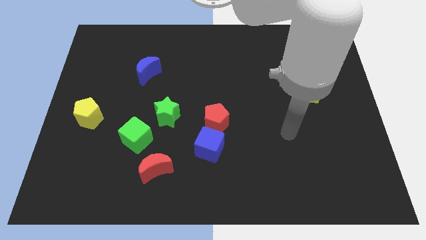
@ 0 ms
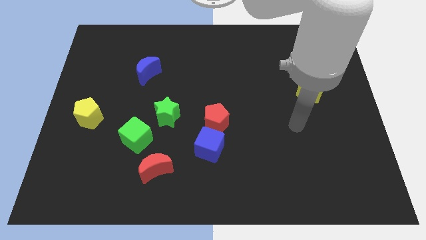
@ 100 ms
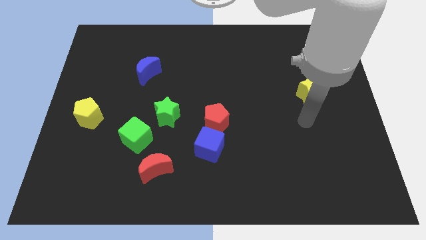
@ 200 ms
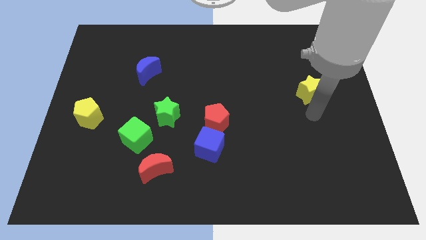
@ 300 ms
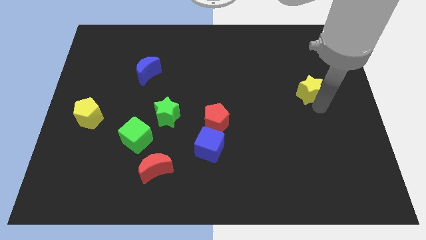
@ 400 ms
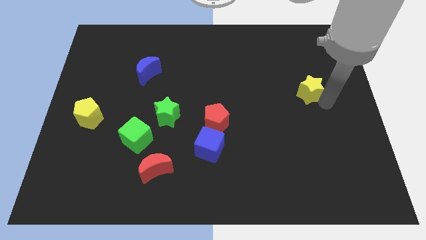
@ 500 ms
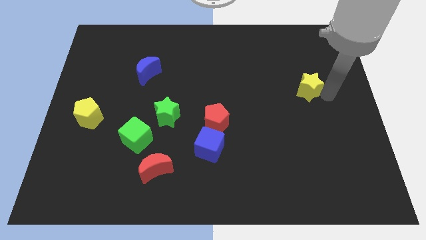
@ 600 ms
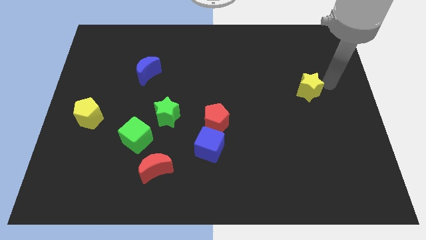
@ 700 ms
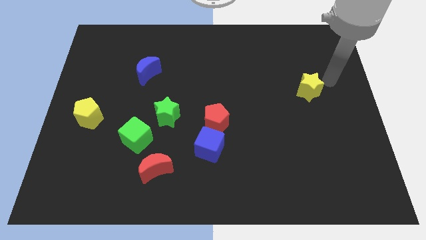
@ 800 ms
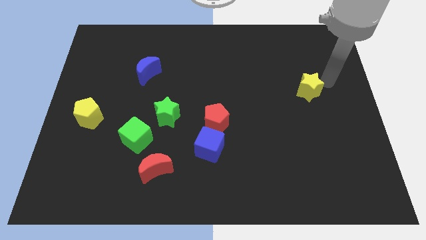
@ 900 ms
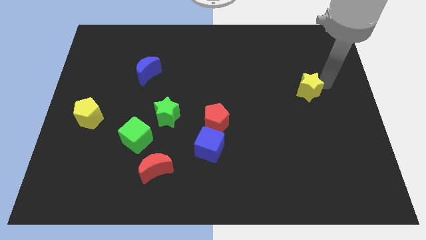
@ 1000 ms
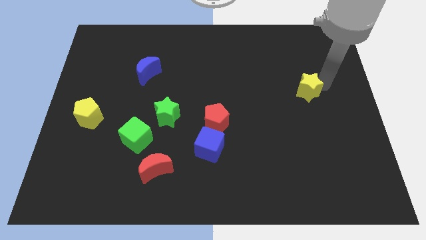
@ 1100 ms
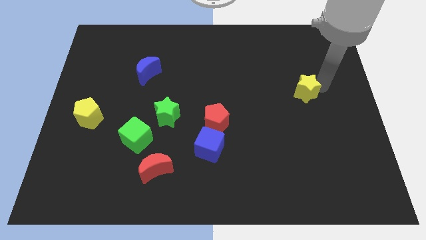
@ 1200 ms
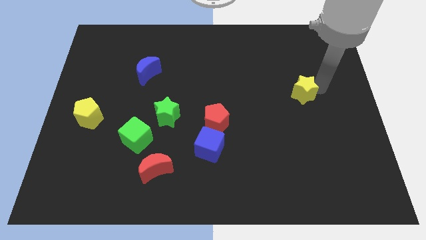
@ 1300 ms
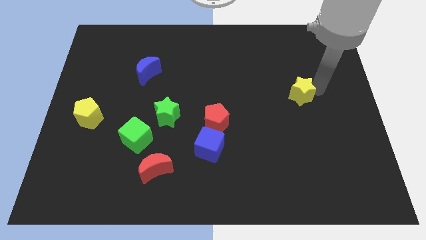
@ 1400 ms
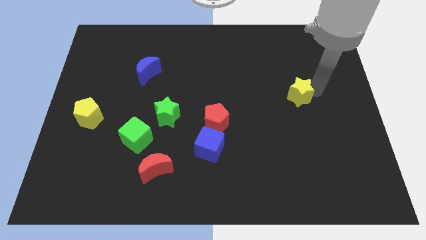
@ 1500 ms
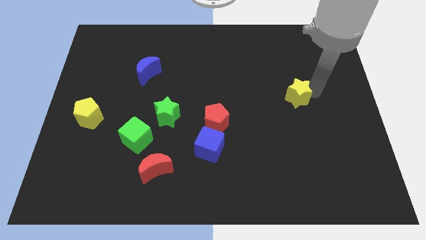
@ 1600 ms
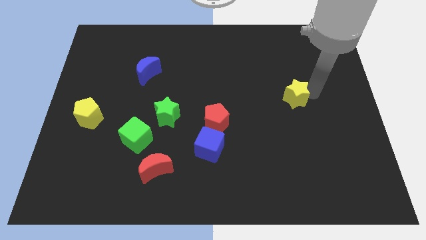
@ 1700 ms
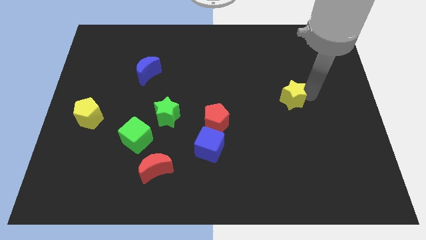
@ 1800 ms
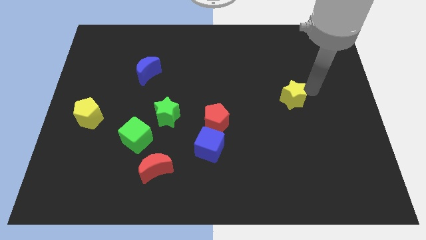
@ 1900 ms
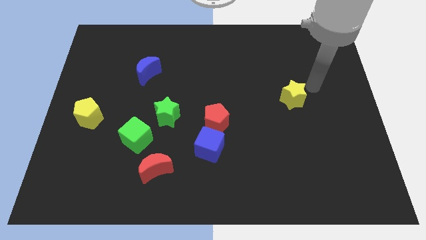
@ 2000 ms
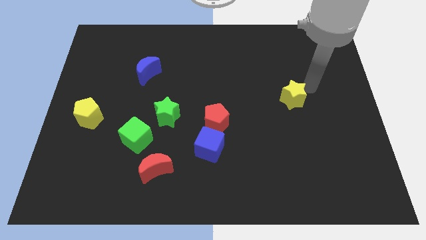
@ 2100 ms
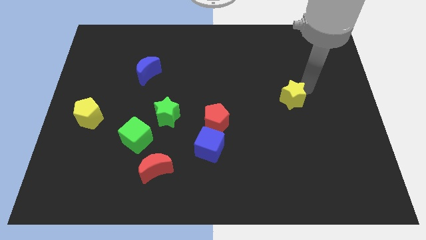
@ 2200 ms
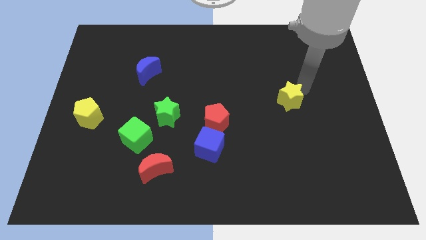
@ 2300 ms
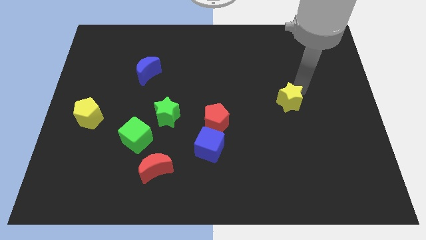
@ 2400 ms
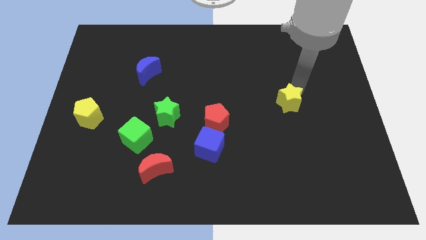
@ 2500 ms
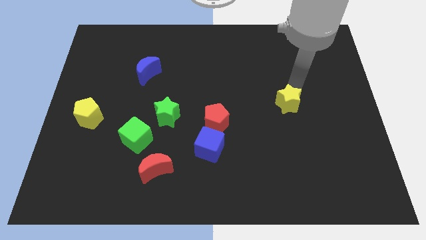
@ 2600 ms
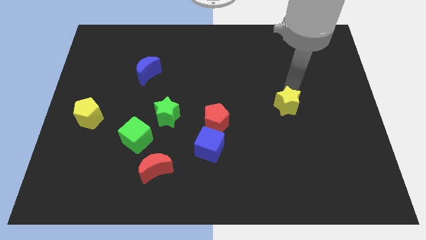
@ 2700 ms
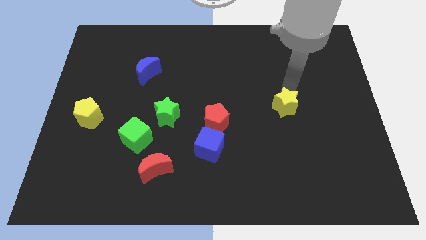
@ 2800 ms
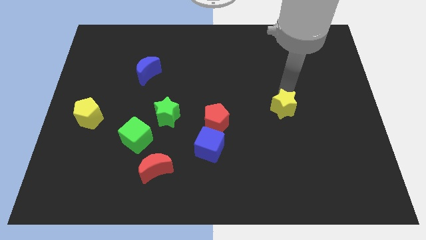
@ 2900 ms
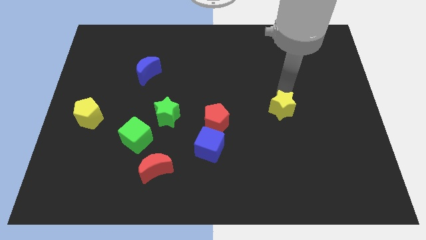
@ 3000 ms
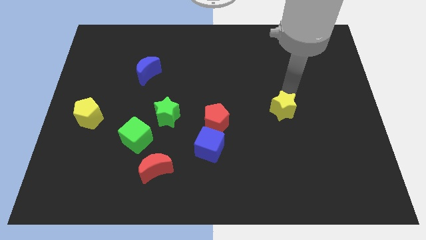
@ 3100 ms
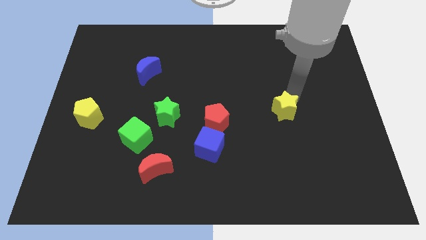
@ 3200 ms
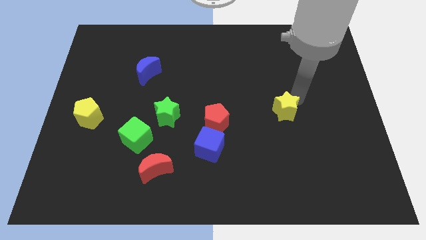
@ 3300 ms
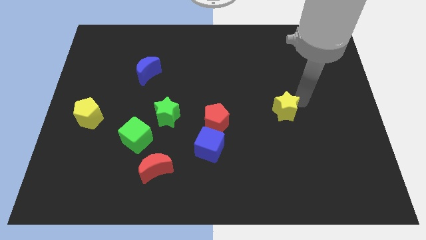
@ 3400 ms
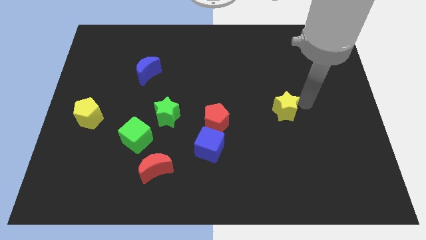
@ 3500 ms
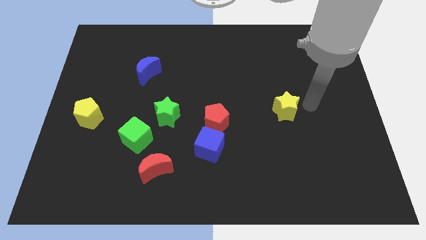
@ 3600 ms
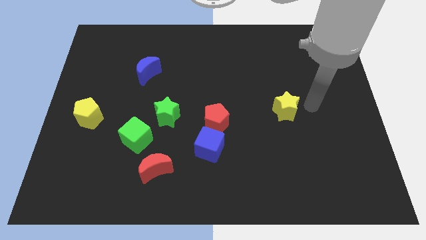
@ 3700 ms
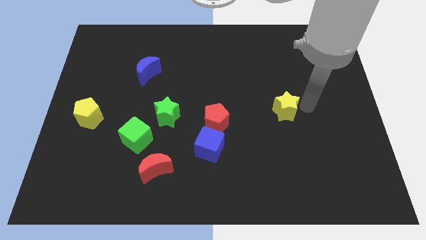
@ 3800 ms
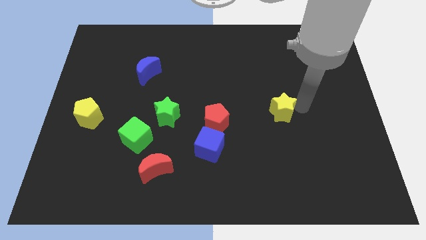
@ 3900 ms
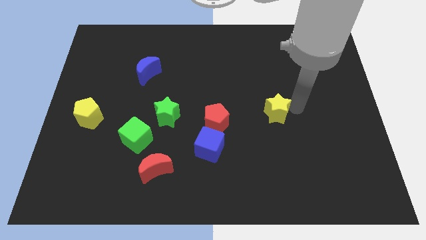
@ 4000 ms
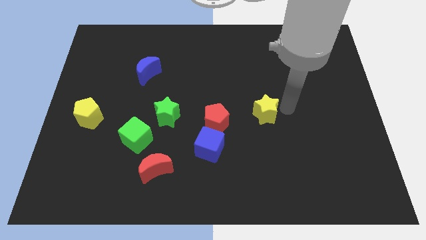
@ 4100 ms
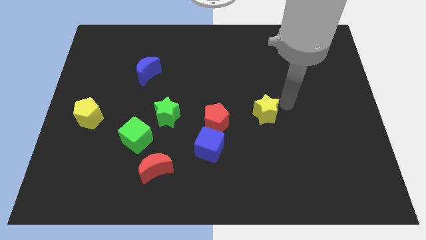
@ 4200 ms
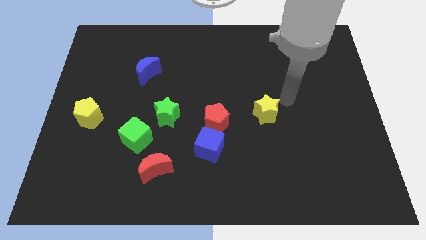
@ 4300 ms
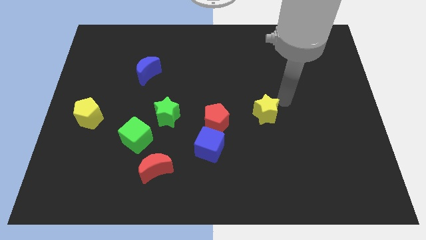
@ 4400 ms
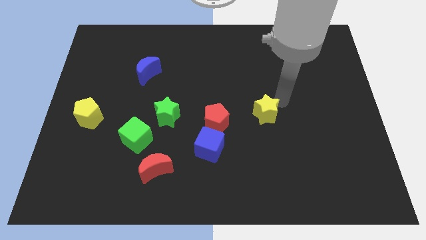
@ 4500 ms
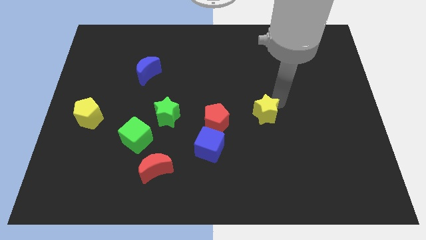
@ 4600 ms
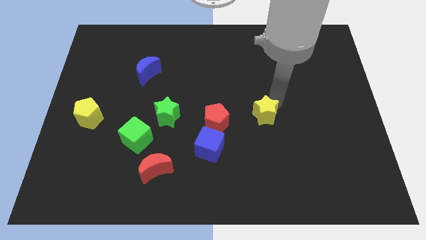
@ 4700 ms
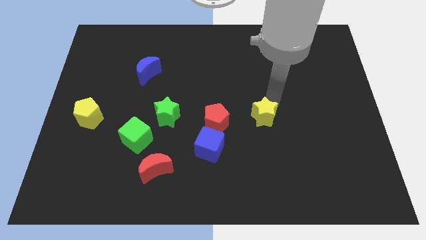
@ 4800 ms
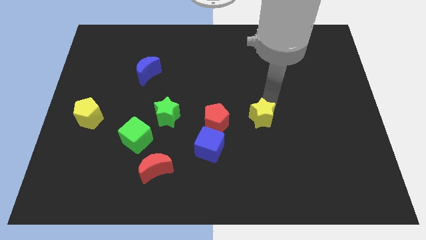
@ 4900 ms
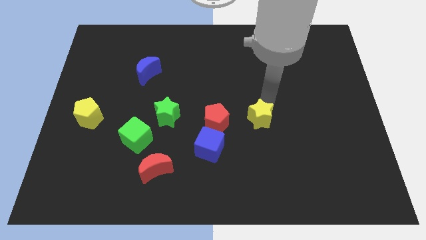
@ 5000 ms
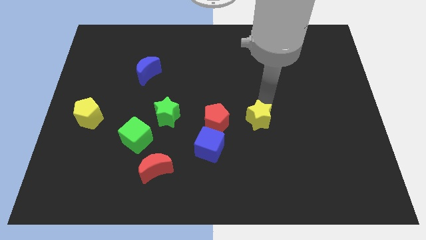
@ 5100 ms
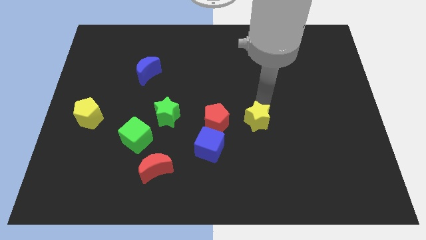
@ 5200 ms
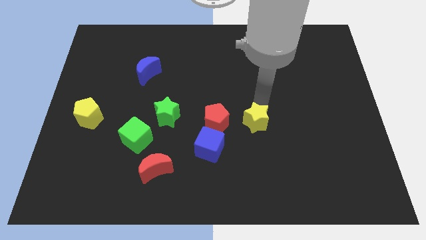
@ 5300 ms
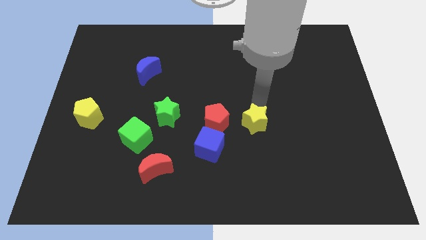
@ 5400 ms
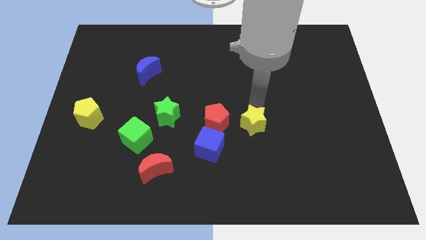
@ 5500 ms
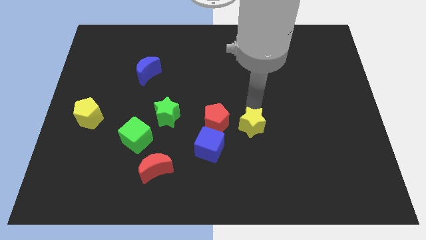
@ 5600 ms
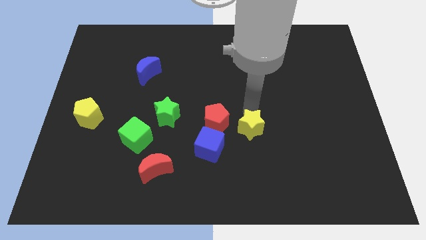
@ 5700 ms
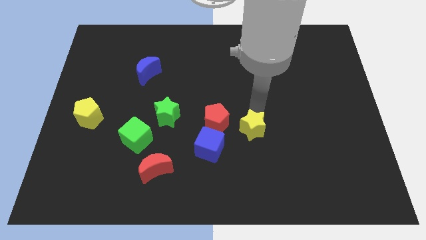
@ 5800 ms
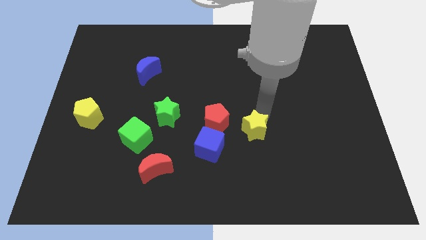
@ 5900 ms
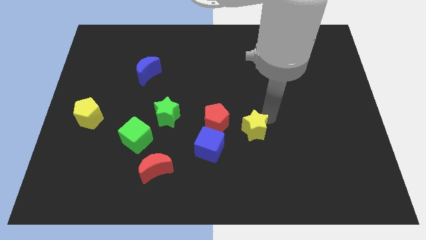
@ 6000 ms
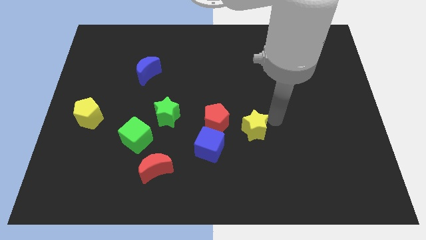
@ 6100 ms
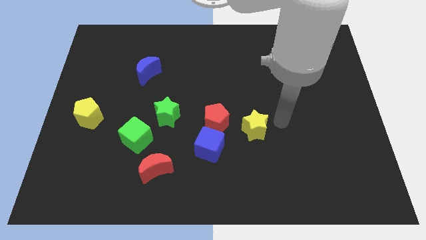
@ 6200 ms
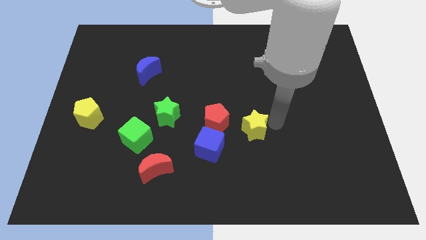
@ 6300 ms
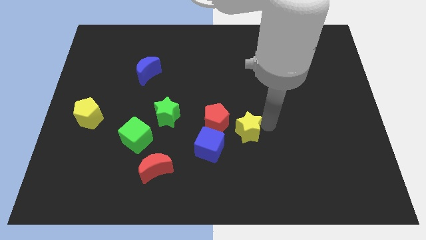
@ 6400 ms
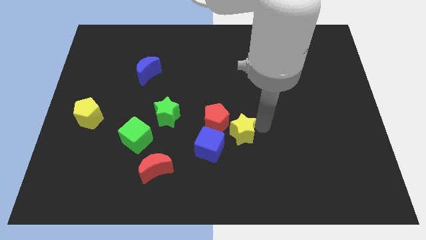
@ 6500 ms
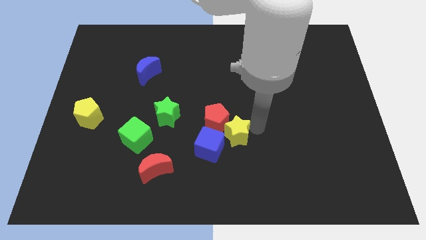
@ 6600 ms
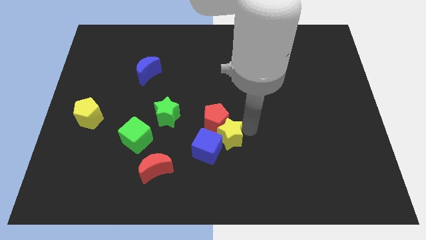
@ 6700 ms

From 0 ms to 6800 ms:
move the yellow star next to the blue cube

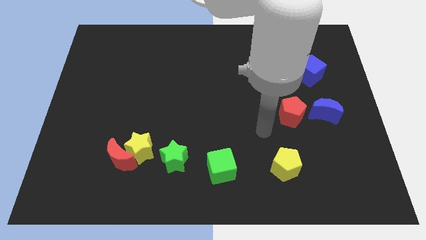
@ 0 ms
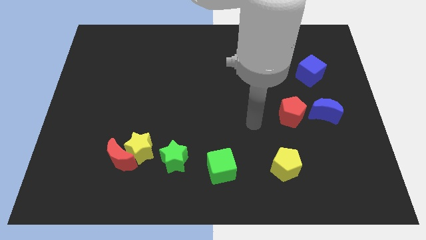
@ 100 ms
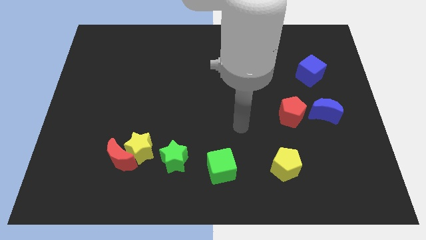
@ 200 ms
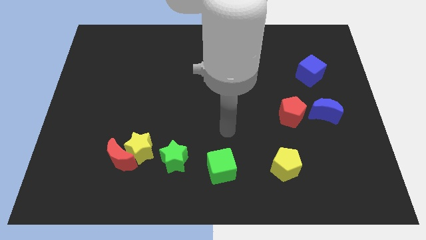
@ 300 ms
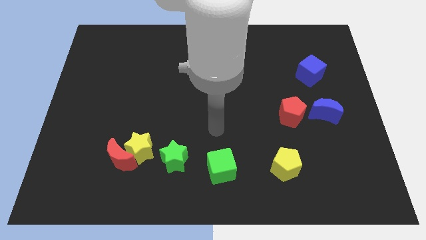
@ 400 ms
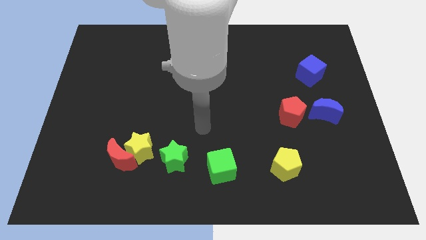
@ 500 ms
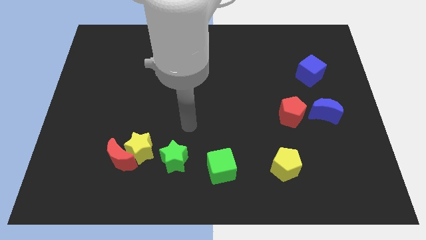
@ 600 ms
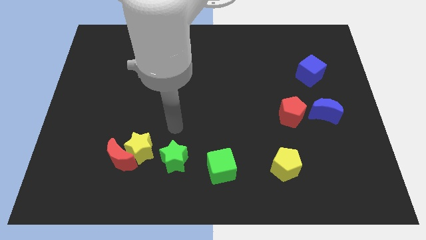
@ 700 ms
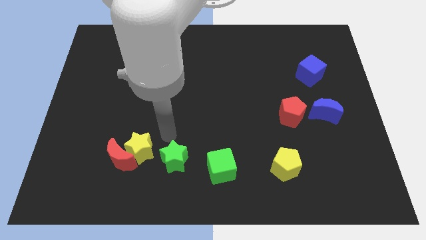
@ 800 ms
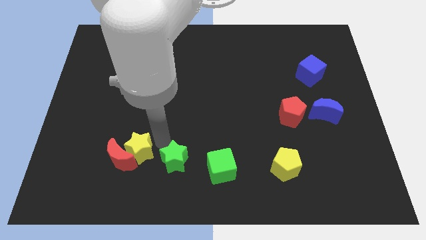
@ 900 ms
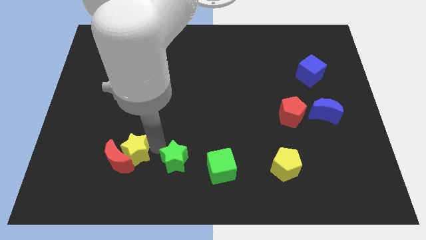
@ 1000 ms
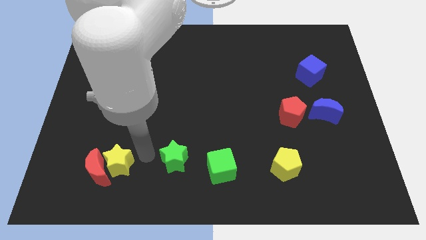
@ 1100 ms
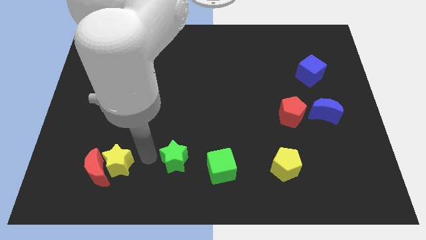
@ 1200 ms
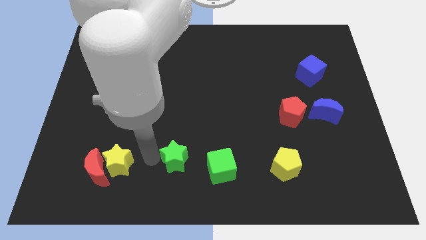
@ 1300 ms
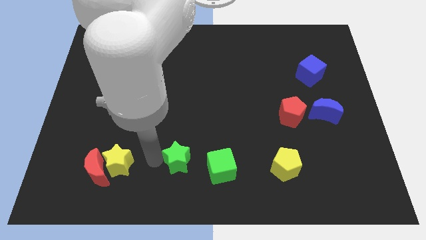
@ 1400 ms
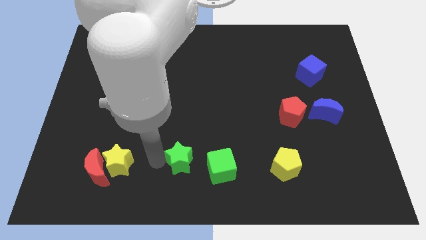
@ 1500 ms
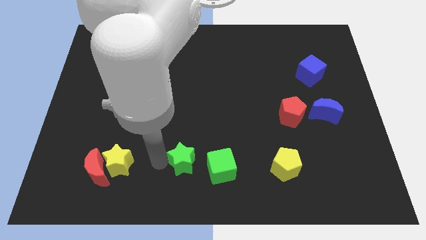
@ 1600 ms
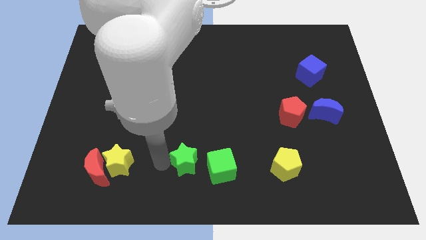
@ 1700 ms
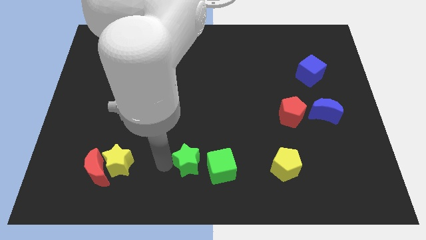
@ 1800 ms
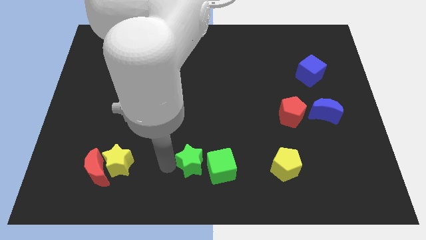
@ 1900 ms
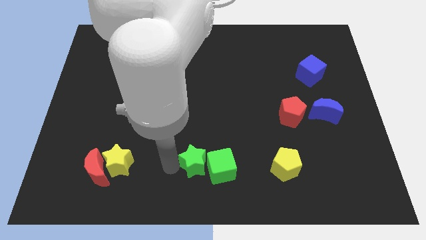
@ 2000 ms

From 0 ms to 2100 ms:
push the green star towards the green cube
